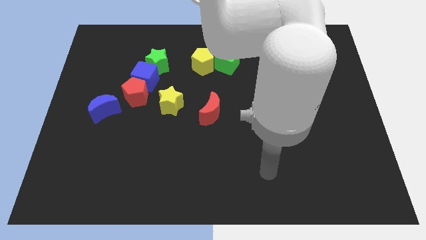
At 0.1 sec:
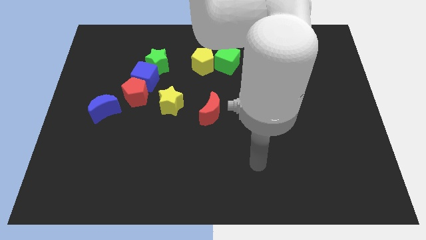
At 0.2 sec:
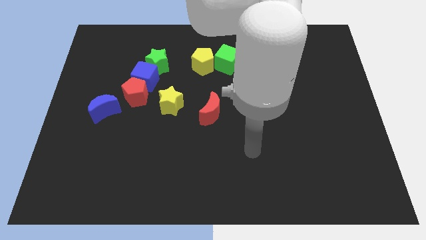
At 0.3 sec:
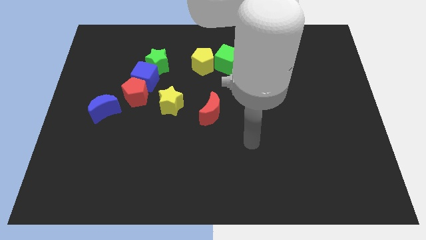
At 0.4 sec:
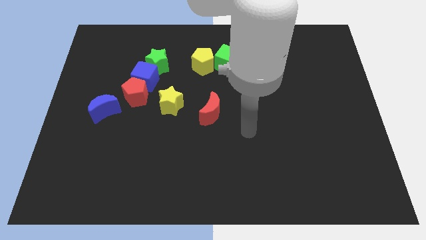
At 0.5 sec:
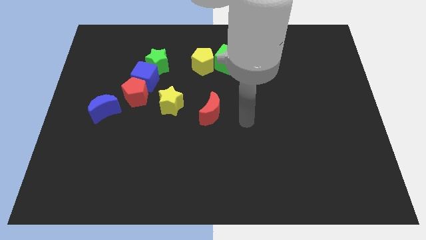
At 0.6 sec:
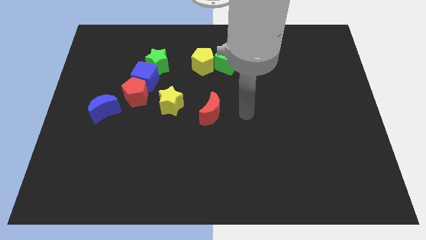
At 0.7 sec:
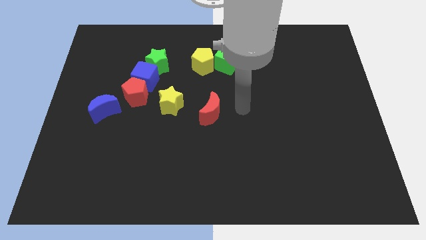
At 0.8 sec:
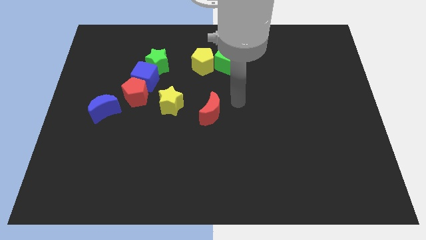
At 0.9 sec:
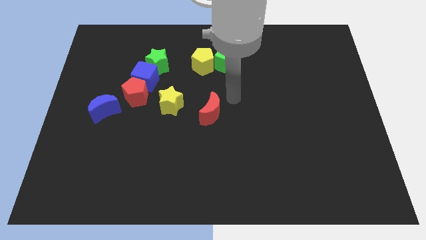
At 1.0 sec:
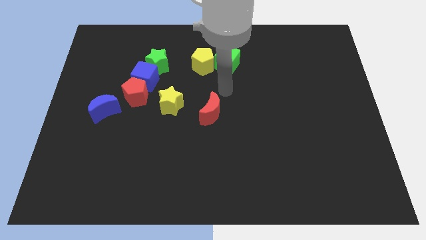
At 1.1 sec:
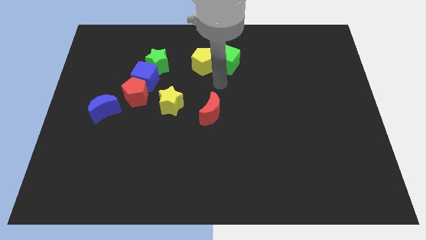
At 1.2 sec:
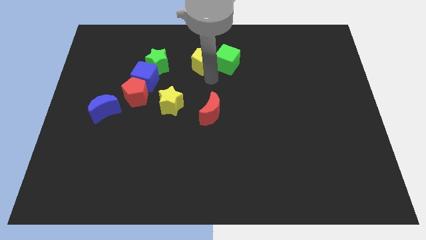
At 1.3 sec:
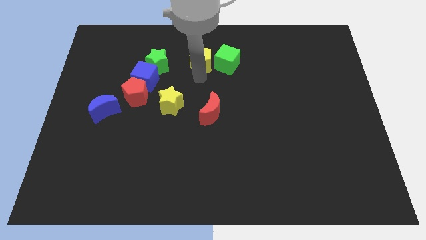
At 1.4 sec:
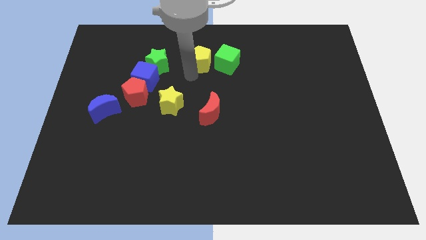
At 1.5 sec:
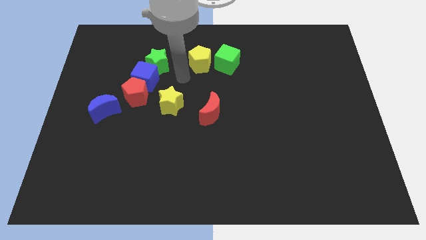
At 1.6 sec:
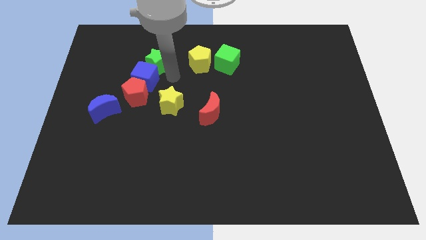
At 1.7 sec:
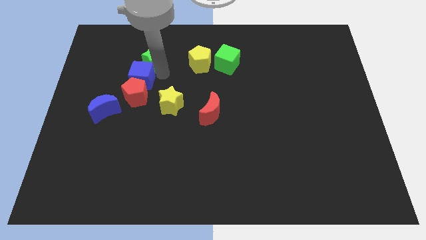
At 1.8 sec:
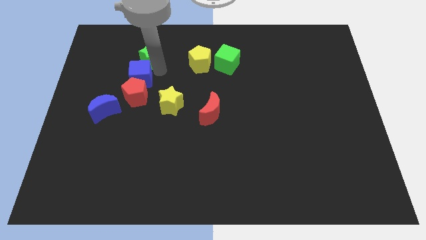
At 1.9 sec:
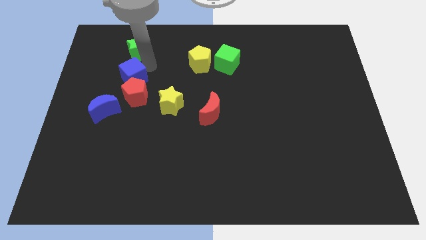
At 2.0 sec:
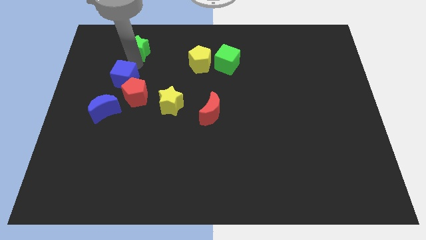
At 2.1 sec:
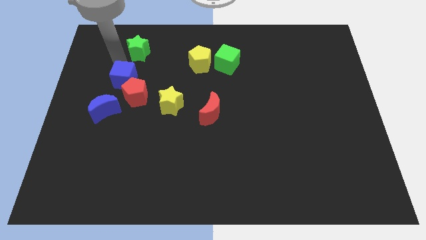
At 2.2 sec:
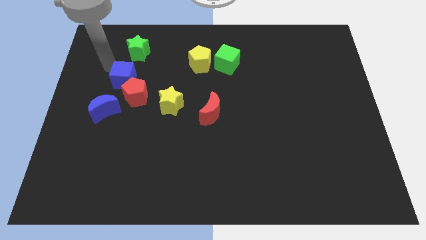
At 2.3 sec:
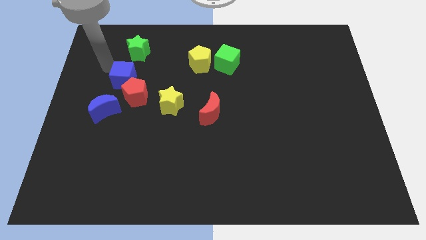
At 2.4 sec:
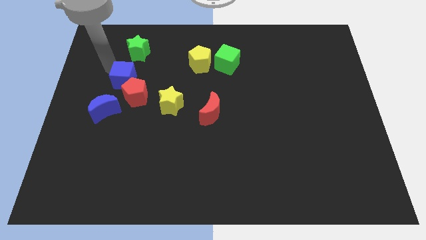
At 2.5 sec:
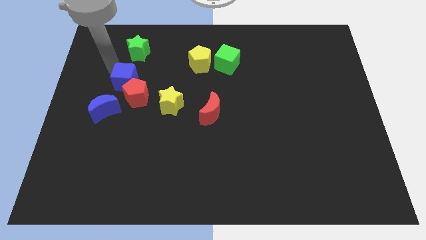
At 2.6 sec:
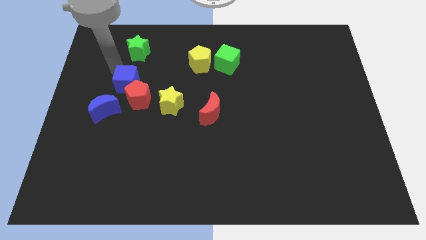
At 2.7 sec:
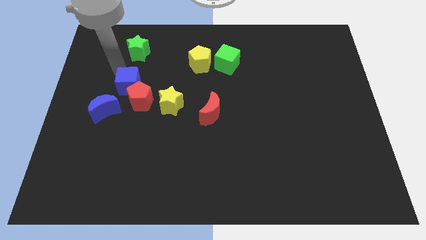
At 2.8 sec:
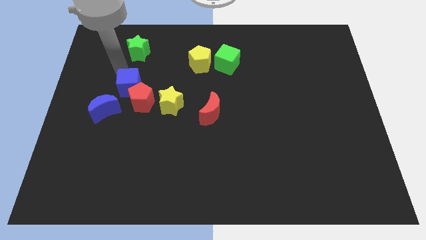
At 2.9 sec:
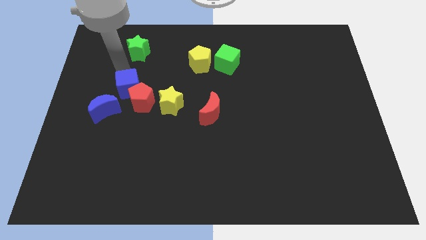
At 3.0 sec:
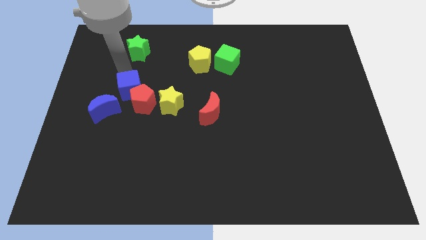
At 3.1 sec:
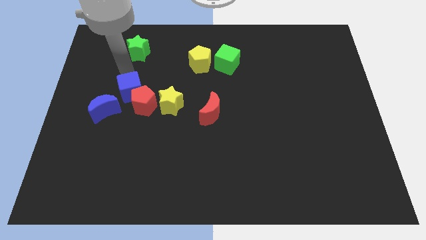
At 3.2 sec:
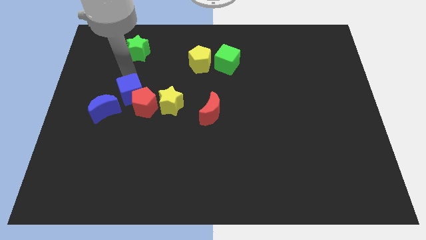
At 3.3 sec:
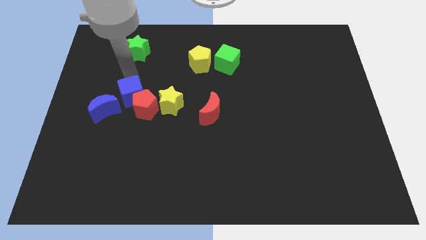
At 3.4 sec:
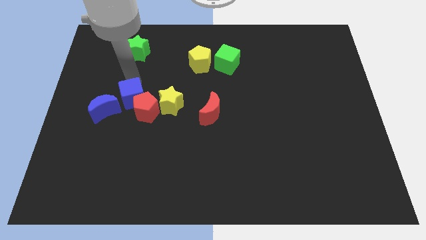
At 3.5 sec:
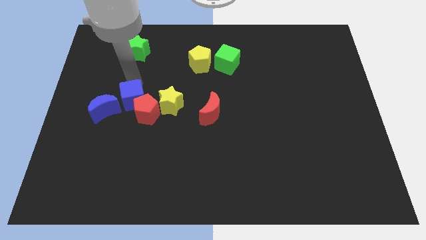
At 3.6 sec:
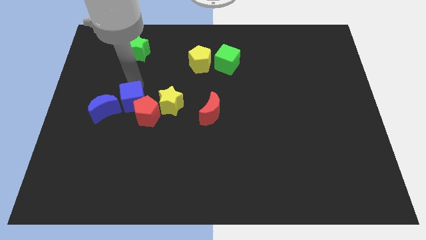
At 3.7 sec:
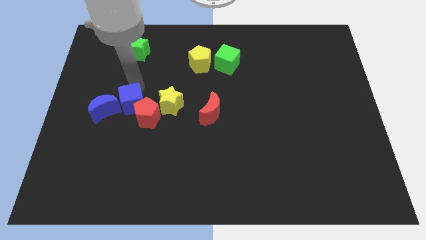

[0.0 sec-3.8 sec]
slightly slide the blue cube downwards

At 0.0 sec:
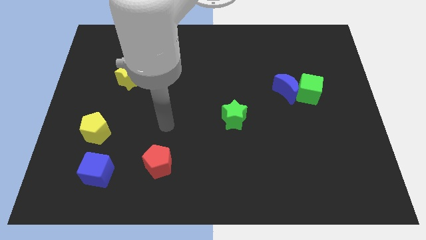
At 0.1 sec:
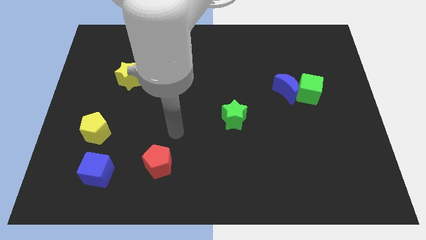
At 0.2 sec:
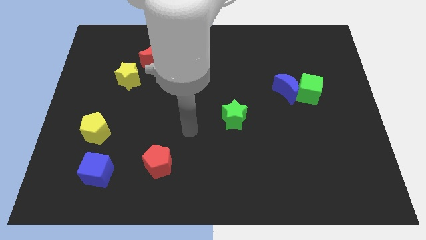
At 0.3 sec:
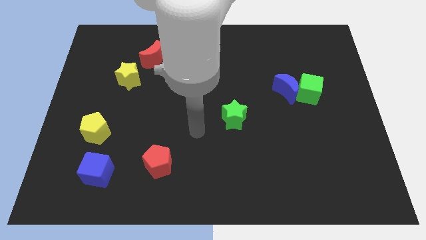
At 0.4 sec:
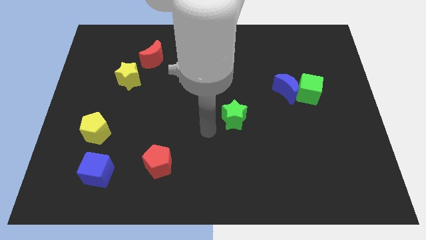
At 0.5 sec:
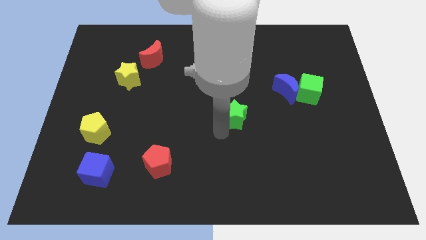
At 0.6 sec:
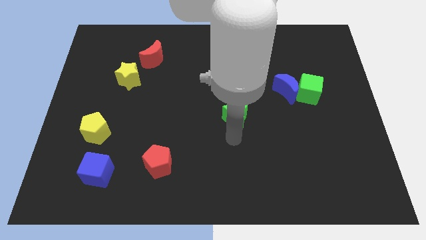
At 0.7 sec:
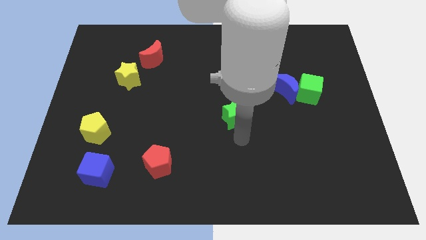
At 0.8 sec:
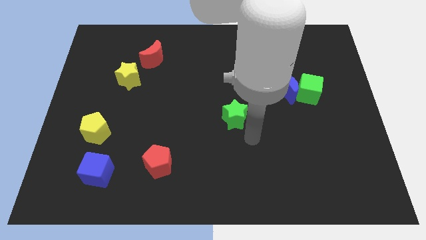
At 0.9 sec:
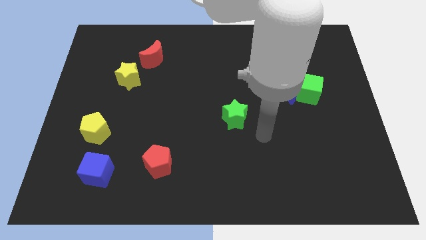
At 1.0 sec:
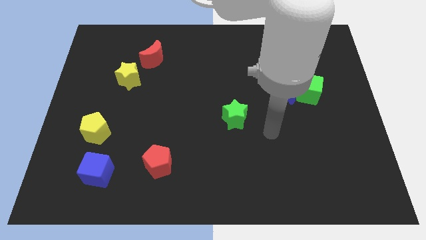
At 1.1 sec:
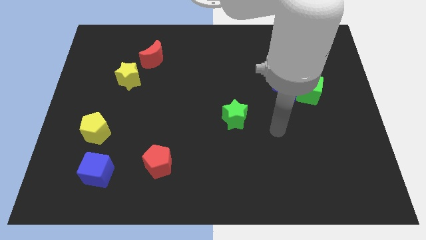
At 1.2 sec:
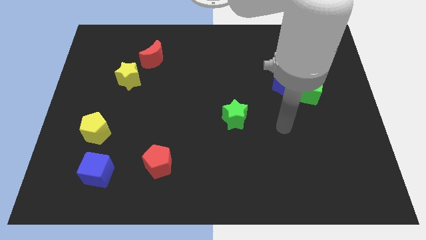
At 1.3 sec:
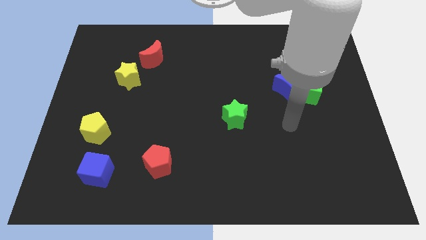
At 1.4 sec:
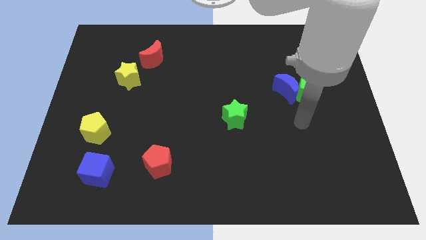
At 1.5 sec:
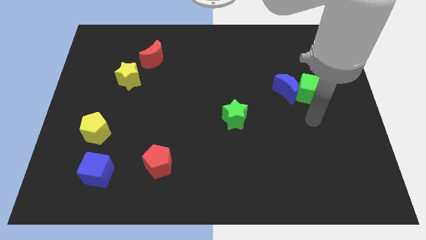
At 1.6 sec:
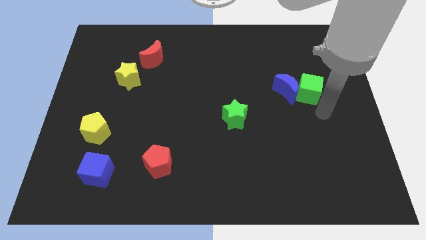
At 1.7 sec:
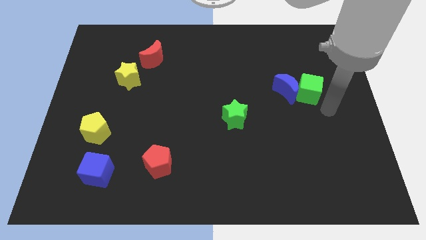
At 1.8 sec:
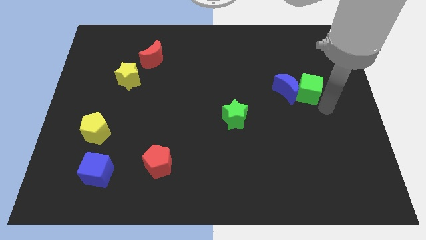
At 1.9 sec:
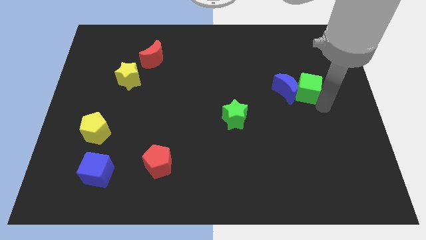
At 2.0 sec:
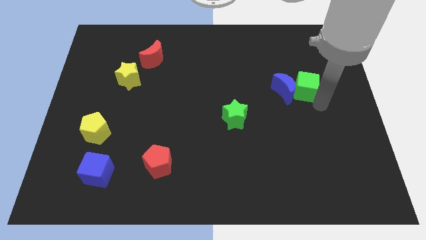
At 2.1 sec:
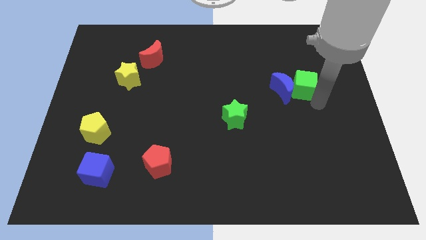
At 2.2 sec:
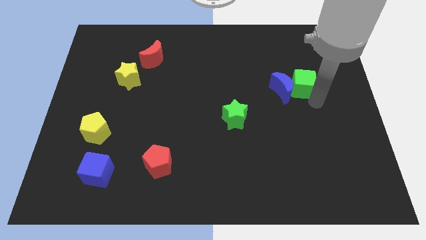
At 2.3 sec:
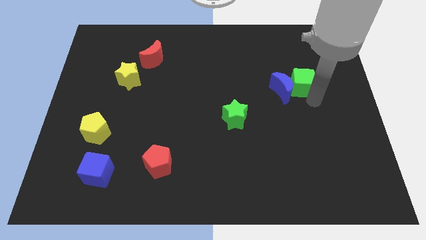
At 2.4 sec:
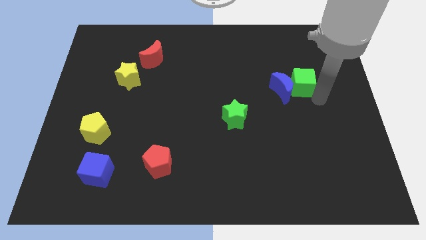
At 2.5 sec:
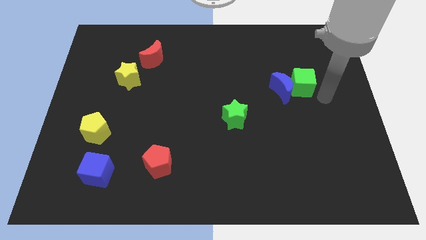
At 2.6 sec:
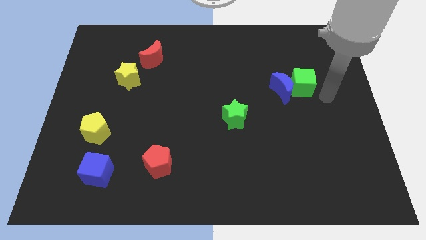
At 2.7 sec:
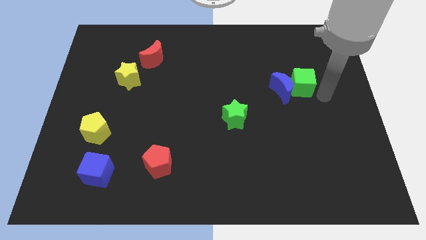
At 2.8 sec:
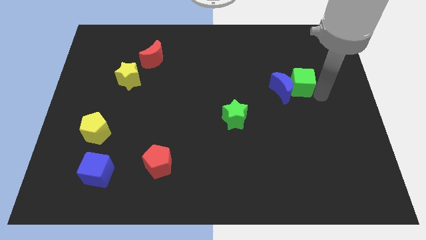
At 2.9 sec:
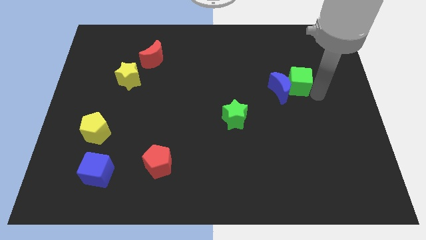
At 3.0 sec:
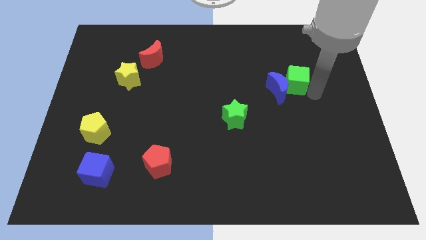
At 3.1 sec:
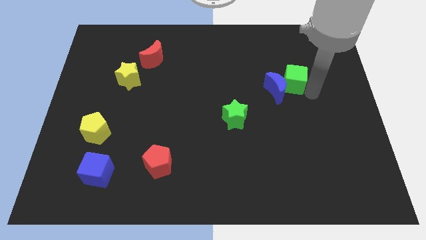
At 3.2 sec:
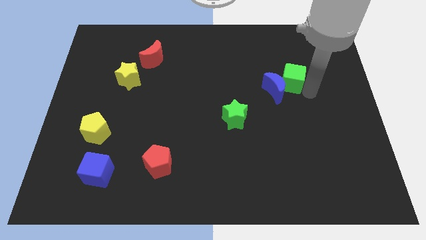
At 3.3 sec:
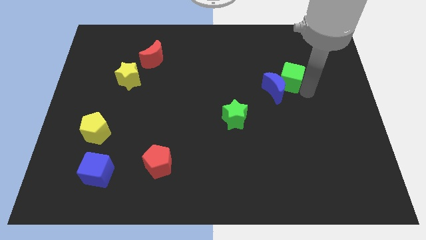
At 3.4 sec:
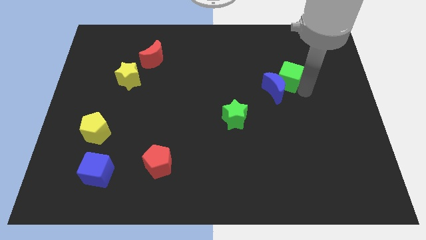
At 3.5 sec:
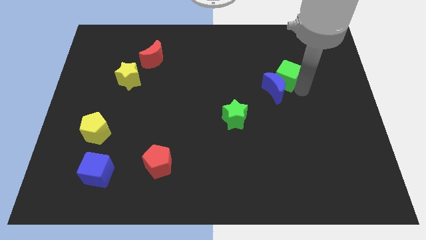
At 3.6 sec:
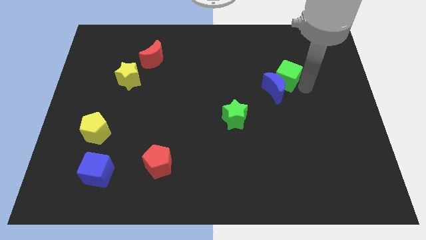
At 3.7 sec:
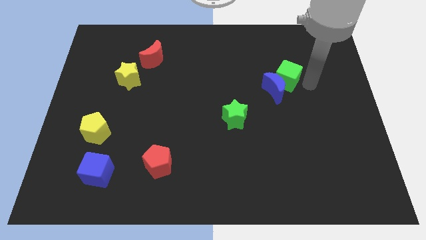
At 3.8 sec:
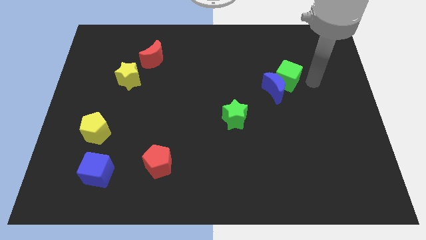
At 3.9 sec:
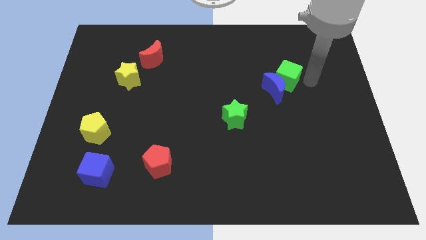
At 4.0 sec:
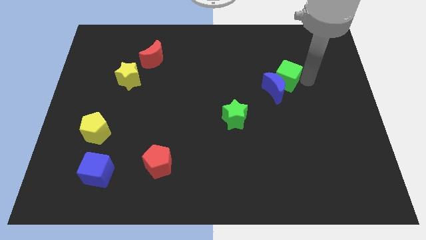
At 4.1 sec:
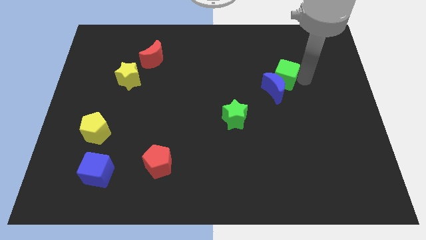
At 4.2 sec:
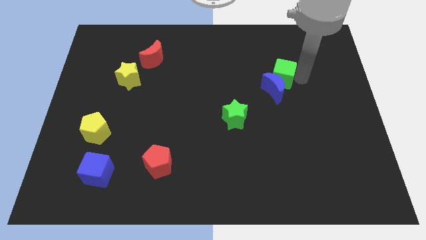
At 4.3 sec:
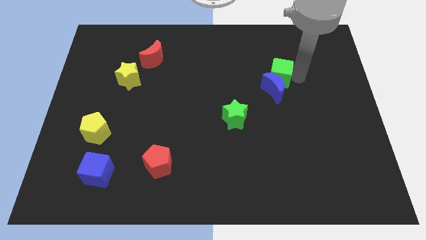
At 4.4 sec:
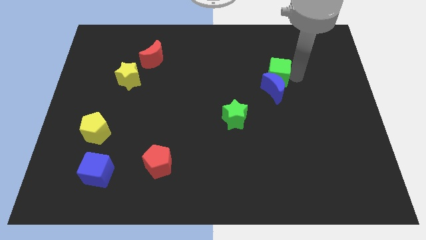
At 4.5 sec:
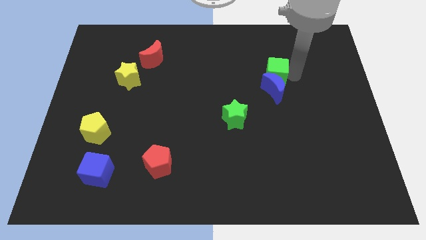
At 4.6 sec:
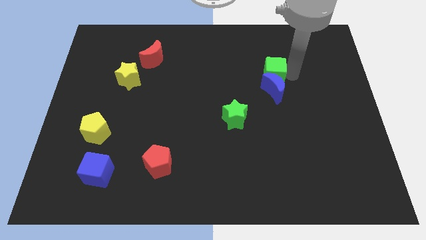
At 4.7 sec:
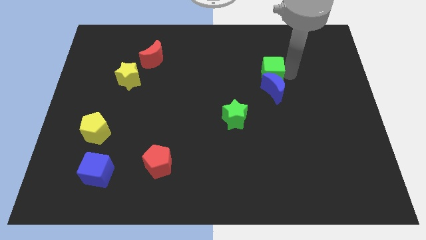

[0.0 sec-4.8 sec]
push the green cube a bit left
